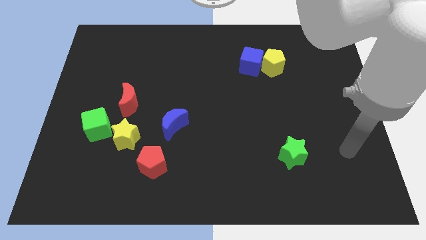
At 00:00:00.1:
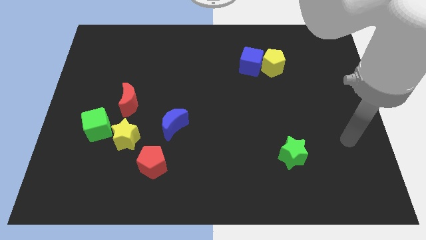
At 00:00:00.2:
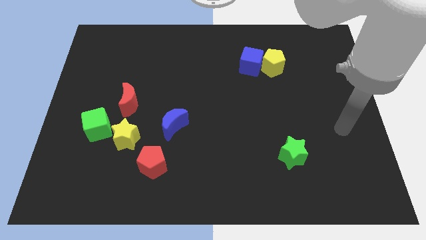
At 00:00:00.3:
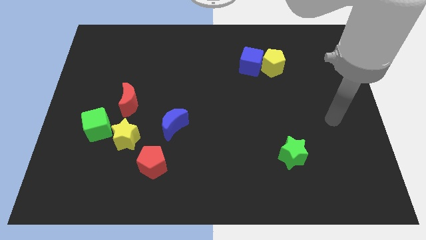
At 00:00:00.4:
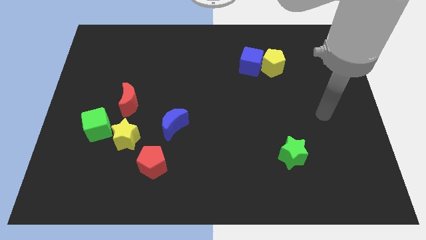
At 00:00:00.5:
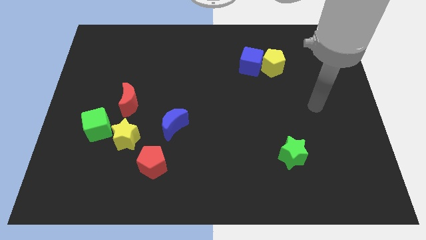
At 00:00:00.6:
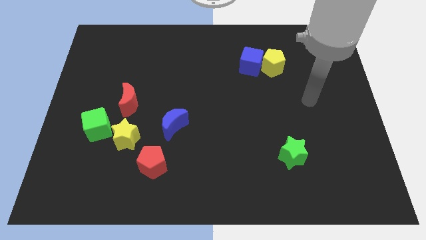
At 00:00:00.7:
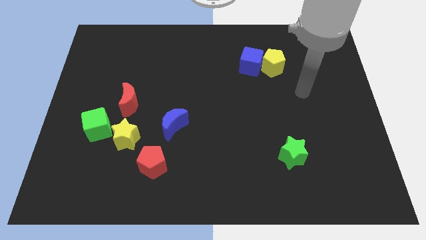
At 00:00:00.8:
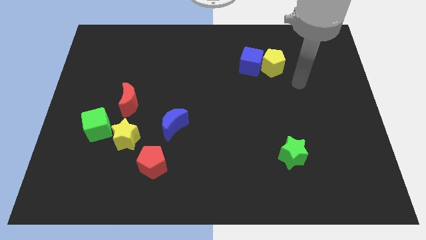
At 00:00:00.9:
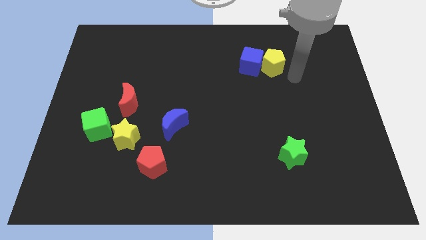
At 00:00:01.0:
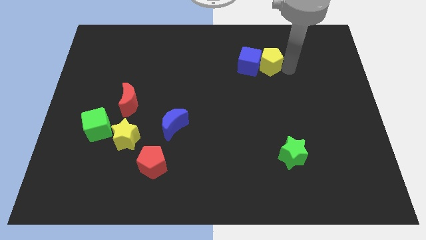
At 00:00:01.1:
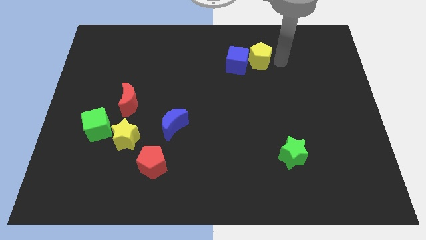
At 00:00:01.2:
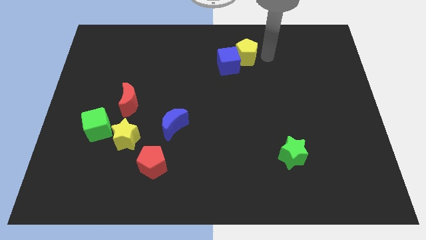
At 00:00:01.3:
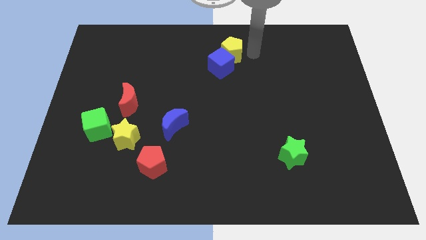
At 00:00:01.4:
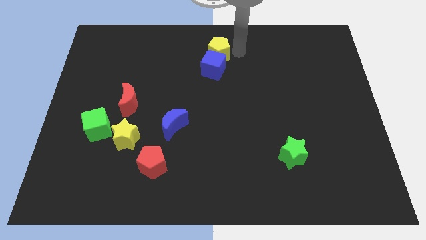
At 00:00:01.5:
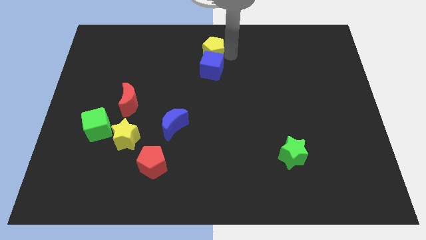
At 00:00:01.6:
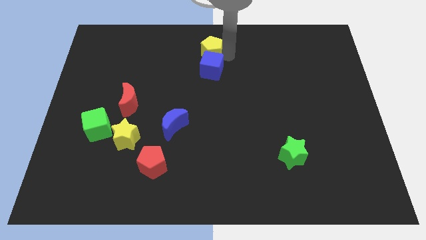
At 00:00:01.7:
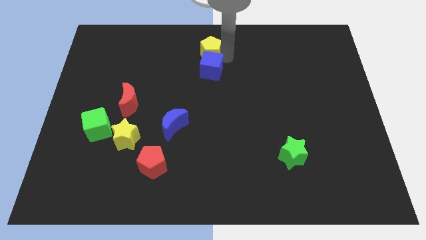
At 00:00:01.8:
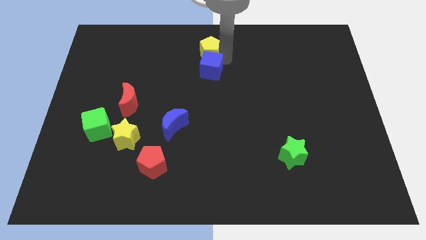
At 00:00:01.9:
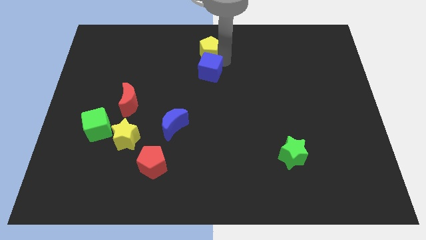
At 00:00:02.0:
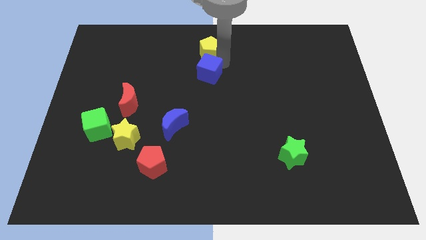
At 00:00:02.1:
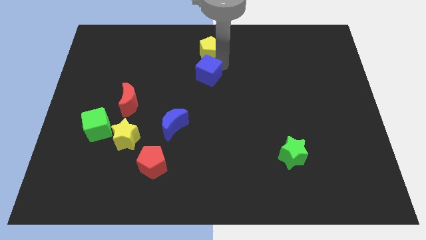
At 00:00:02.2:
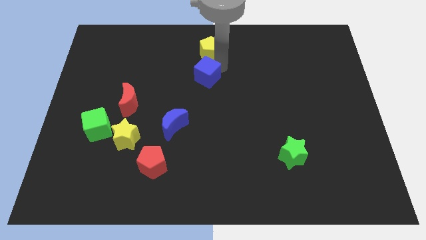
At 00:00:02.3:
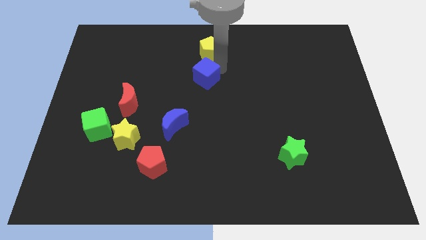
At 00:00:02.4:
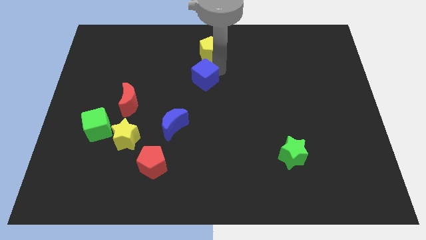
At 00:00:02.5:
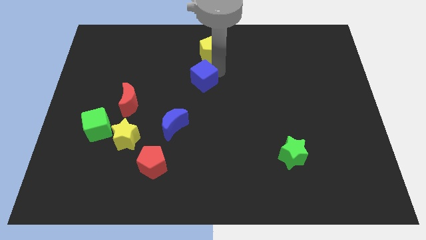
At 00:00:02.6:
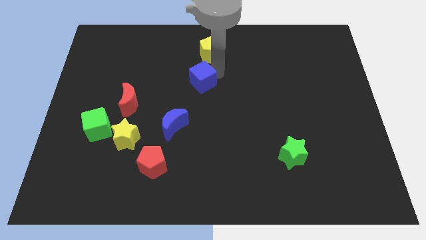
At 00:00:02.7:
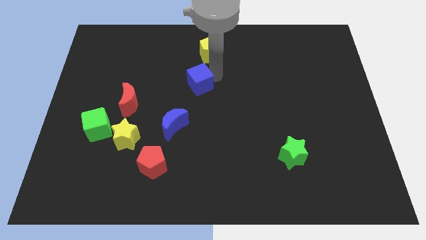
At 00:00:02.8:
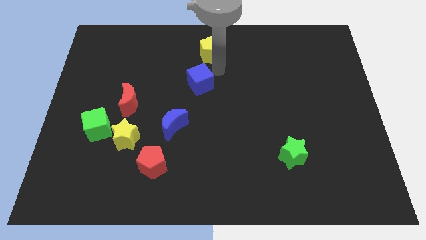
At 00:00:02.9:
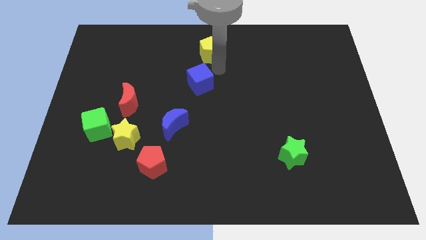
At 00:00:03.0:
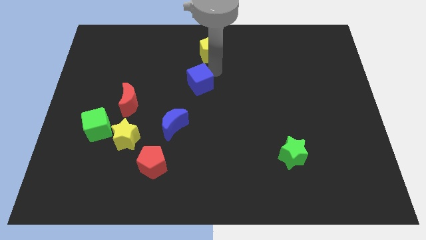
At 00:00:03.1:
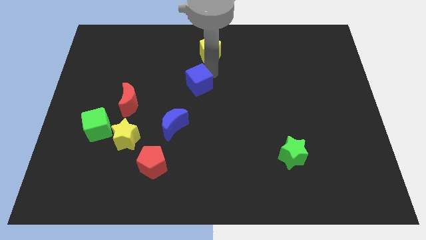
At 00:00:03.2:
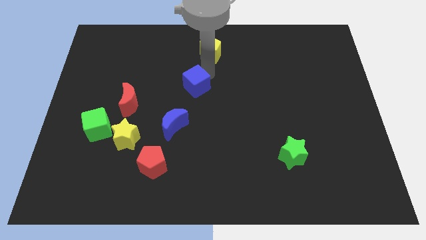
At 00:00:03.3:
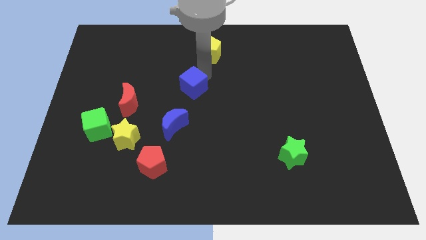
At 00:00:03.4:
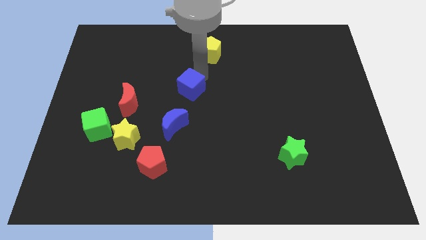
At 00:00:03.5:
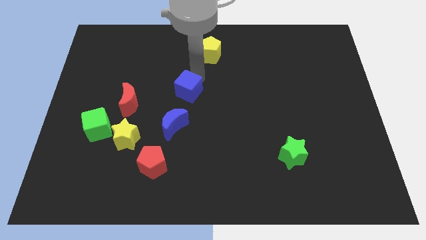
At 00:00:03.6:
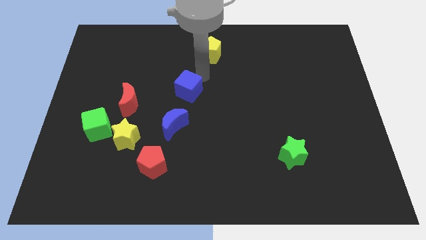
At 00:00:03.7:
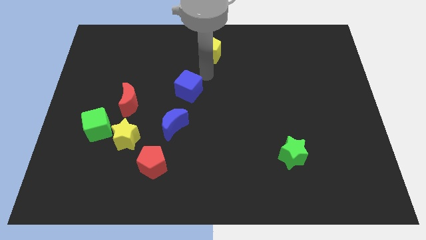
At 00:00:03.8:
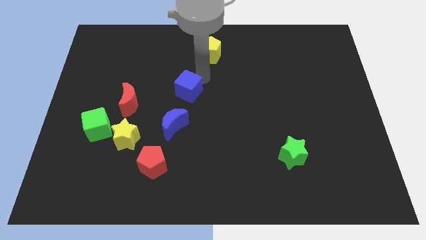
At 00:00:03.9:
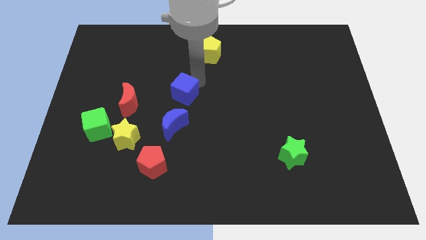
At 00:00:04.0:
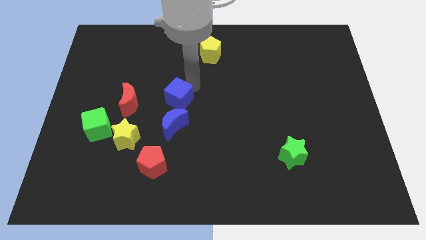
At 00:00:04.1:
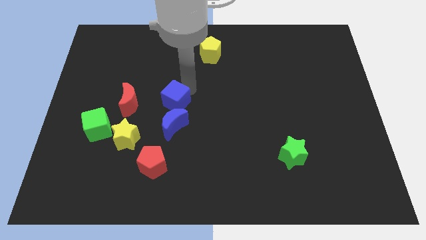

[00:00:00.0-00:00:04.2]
slide the blue cube downwards and to the left

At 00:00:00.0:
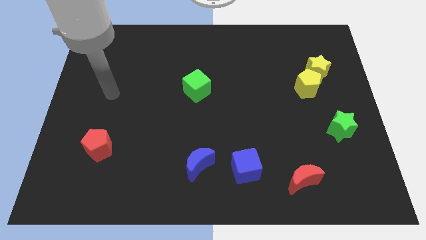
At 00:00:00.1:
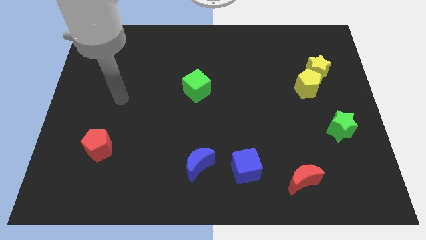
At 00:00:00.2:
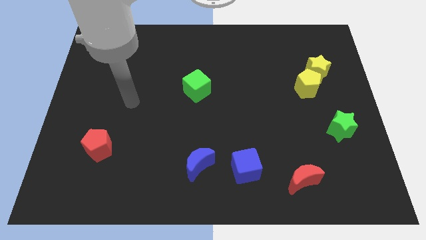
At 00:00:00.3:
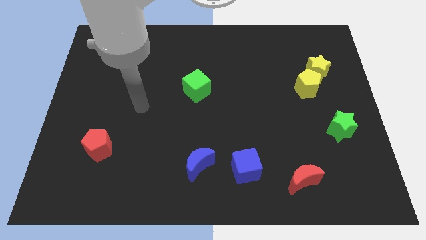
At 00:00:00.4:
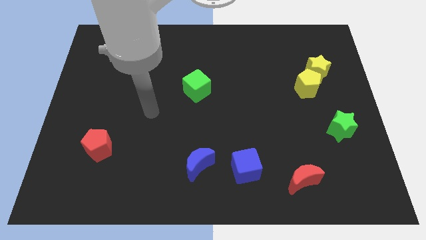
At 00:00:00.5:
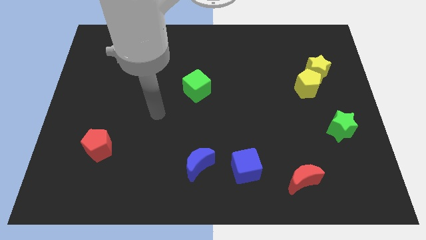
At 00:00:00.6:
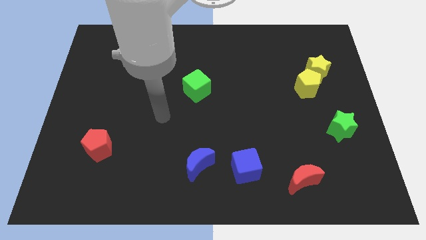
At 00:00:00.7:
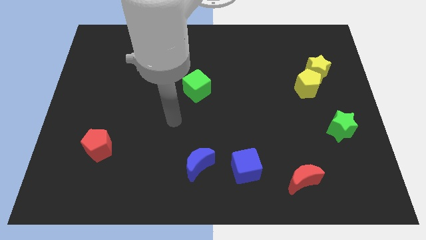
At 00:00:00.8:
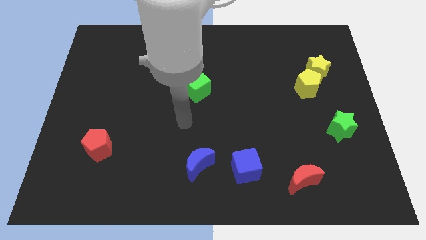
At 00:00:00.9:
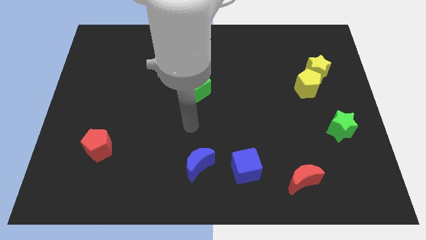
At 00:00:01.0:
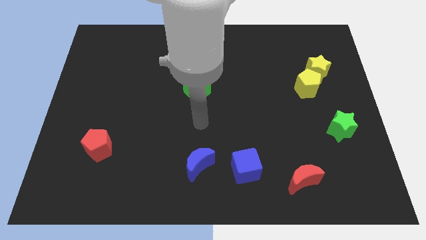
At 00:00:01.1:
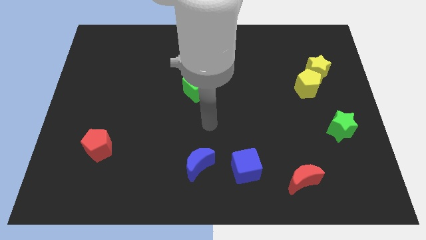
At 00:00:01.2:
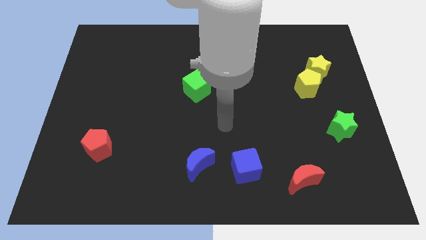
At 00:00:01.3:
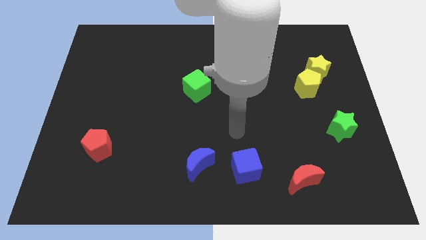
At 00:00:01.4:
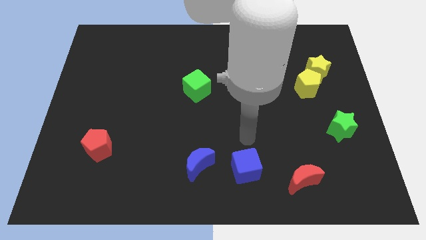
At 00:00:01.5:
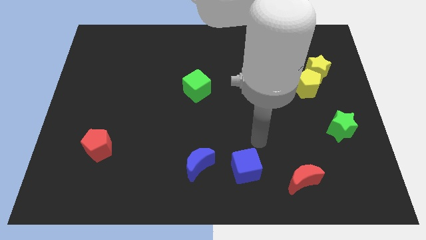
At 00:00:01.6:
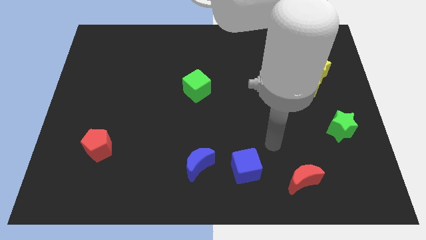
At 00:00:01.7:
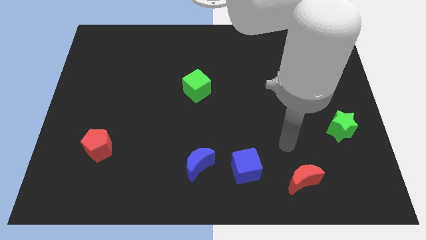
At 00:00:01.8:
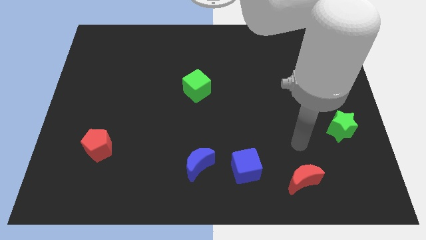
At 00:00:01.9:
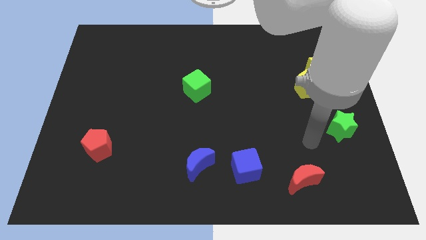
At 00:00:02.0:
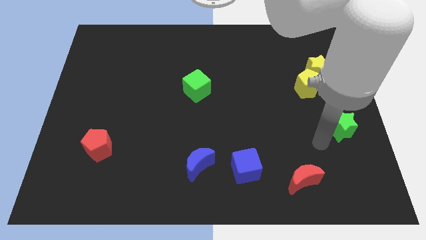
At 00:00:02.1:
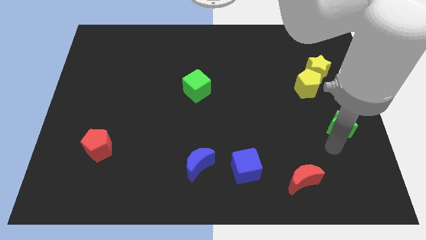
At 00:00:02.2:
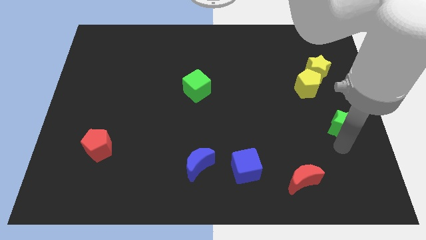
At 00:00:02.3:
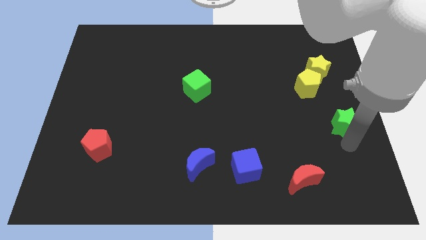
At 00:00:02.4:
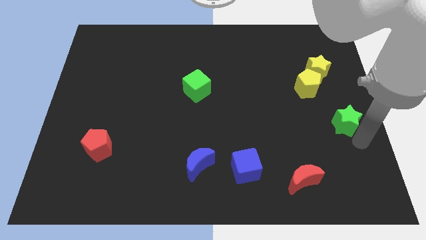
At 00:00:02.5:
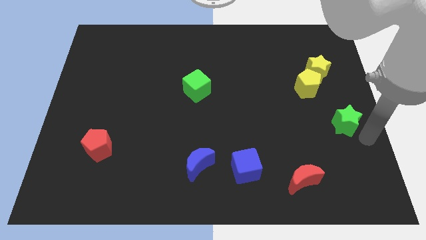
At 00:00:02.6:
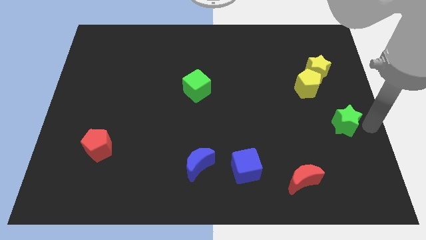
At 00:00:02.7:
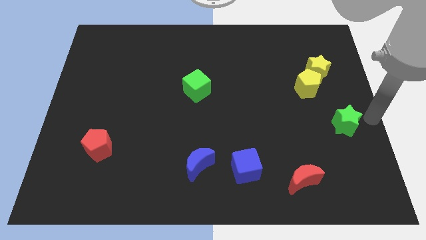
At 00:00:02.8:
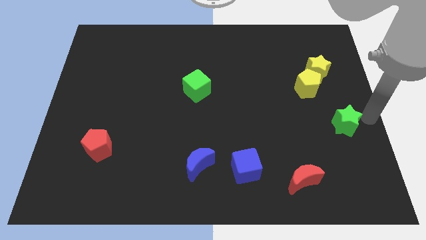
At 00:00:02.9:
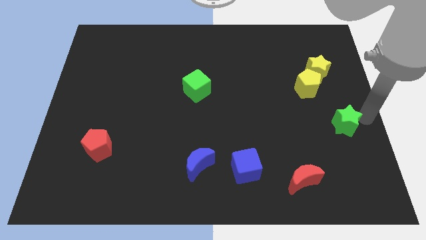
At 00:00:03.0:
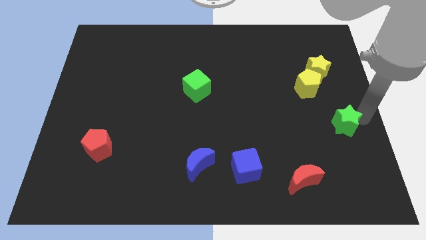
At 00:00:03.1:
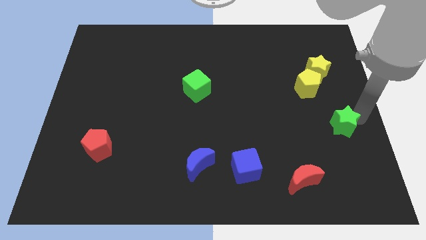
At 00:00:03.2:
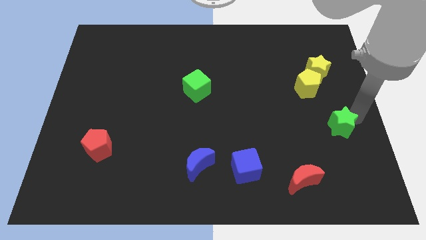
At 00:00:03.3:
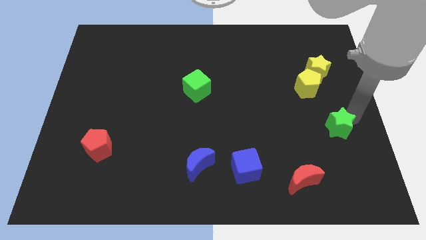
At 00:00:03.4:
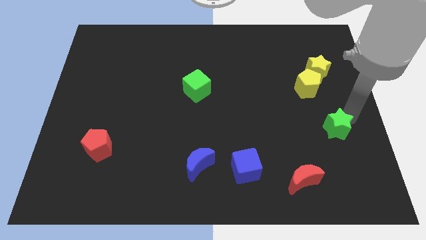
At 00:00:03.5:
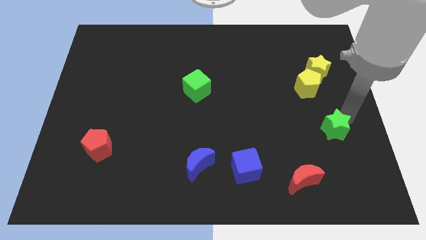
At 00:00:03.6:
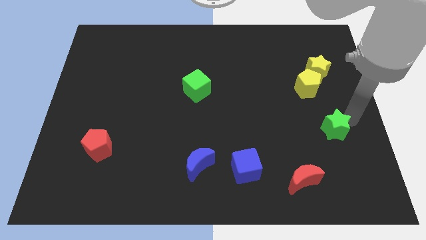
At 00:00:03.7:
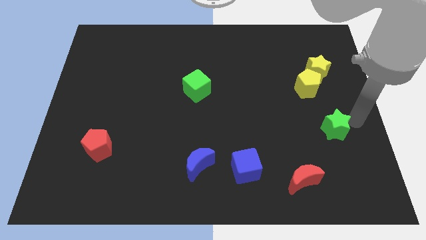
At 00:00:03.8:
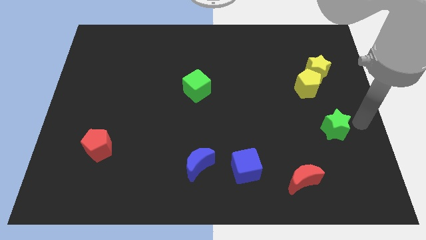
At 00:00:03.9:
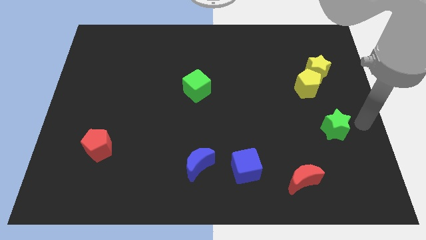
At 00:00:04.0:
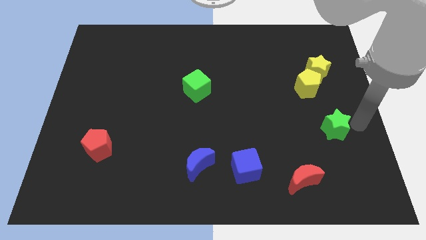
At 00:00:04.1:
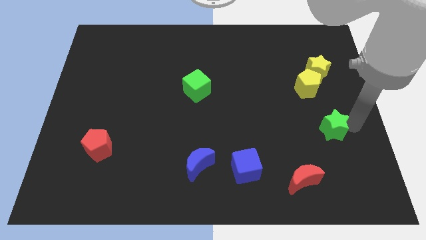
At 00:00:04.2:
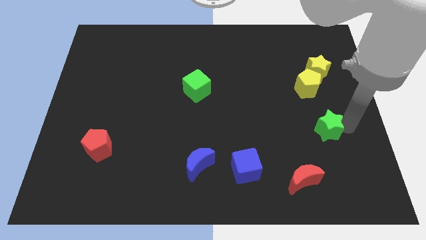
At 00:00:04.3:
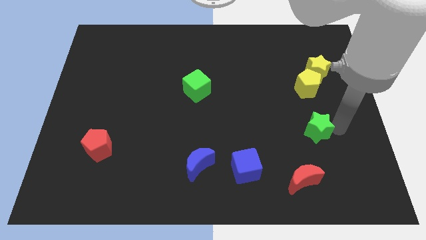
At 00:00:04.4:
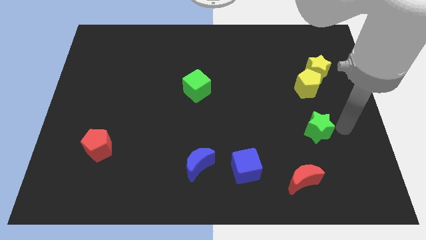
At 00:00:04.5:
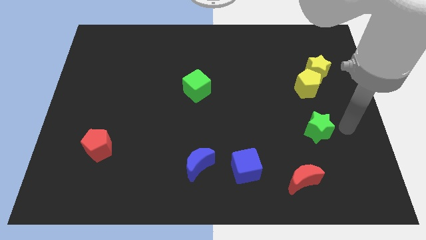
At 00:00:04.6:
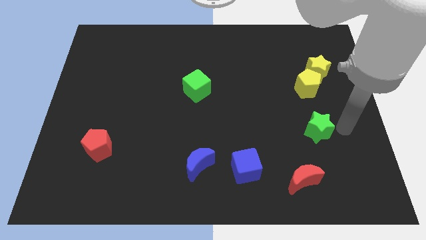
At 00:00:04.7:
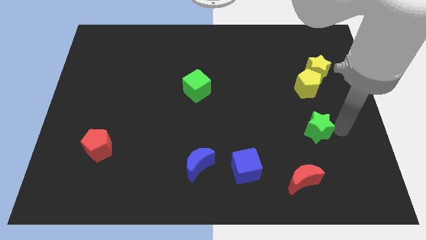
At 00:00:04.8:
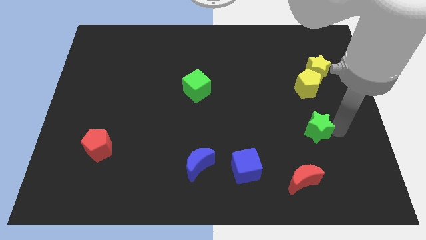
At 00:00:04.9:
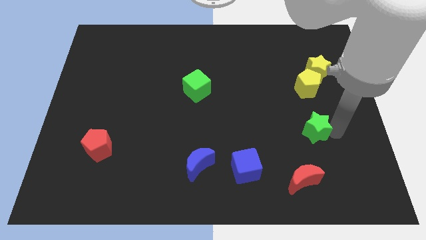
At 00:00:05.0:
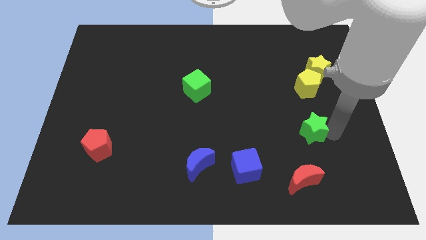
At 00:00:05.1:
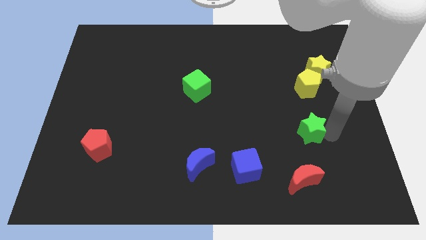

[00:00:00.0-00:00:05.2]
slightly slide the green star left
